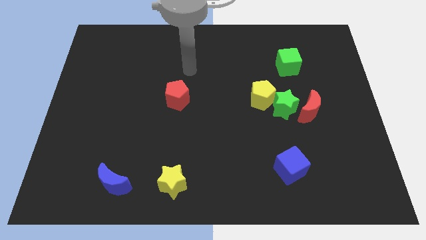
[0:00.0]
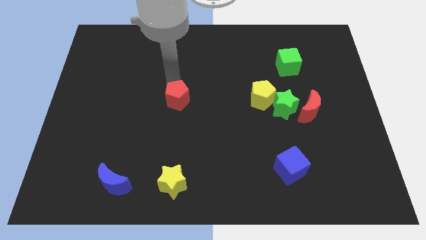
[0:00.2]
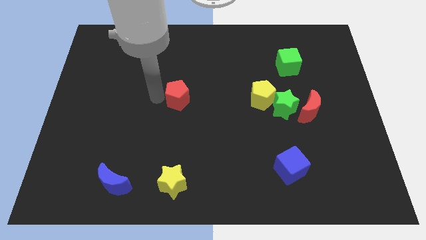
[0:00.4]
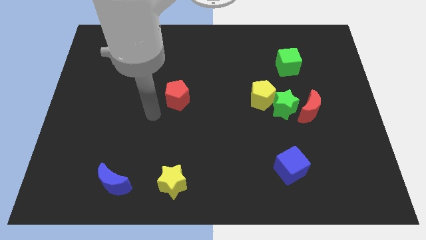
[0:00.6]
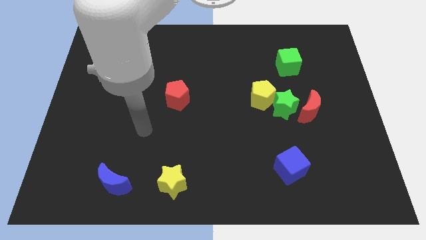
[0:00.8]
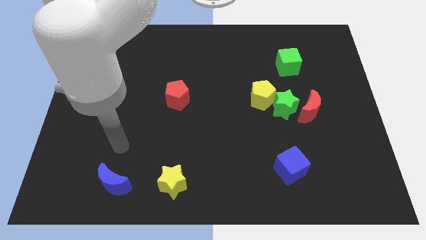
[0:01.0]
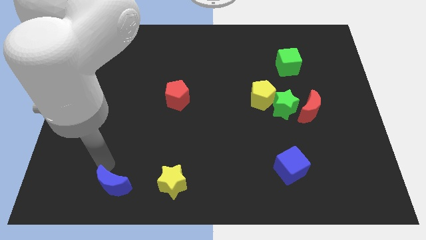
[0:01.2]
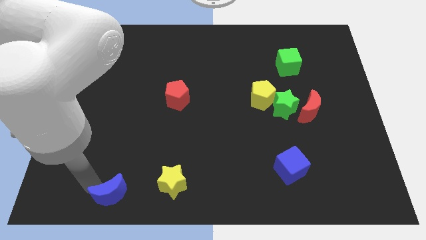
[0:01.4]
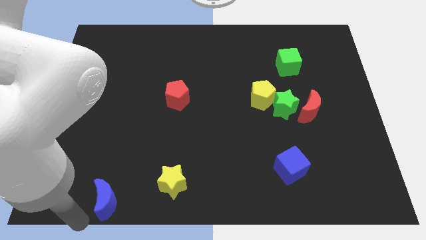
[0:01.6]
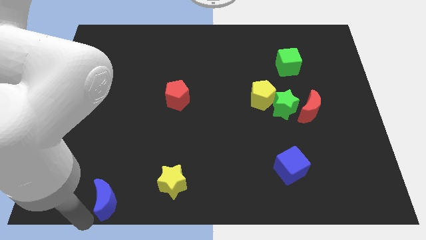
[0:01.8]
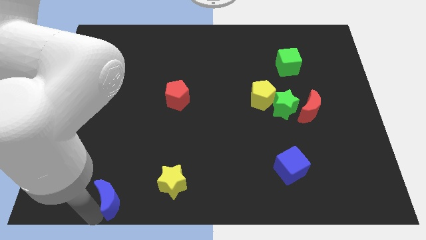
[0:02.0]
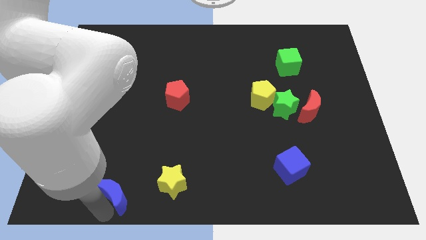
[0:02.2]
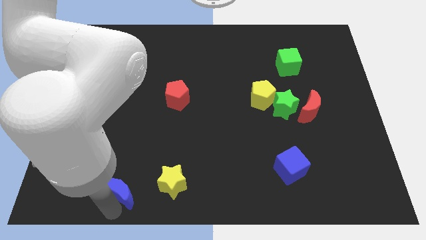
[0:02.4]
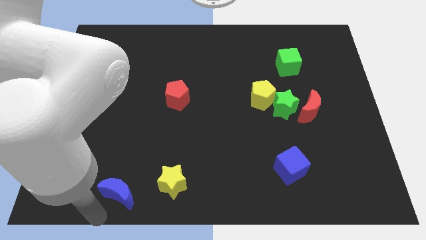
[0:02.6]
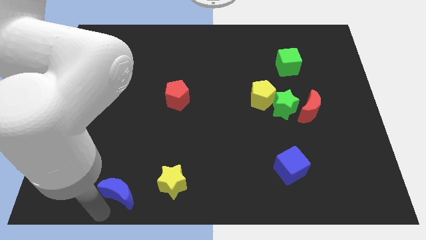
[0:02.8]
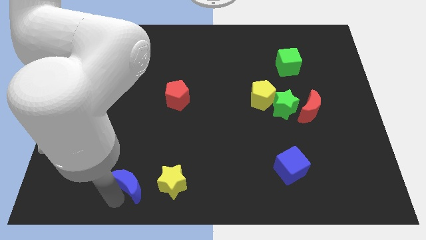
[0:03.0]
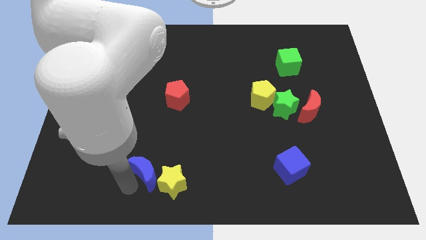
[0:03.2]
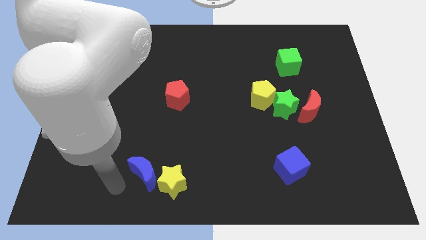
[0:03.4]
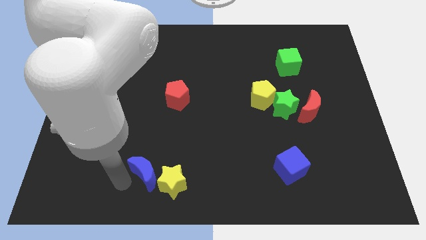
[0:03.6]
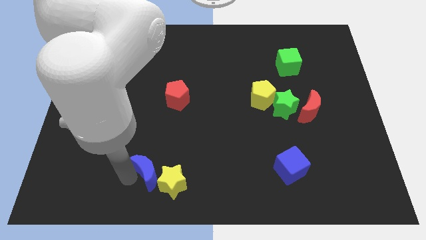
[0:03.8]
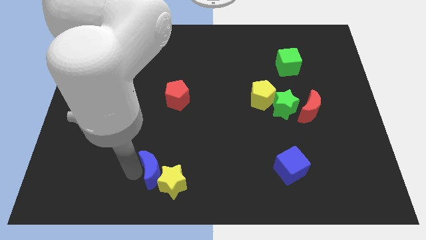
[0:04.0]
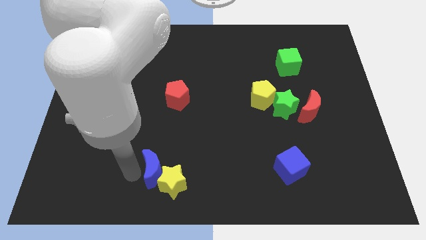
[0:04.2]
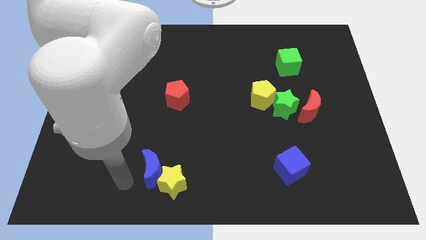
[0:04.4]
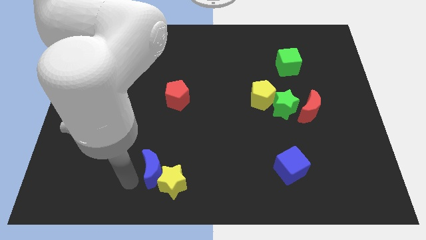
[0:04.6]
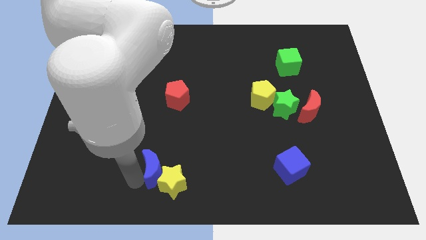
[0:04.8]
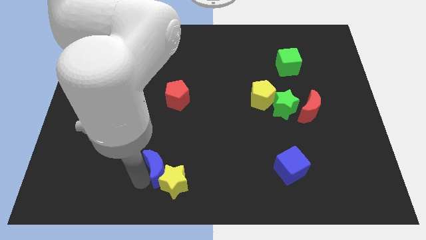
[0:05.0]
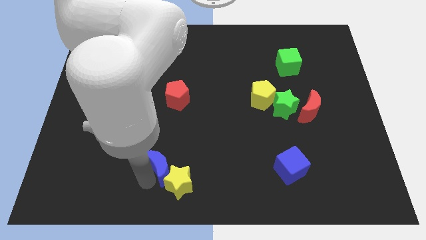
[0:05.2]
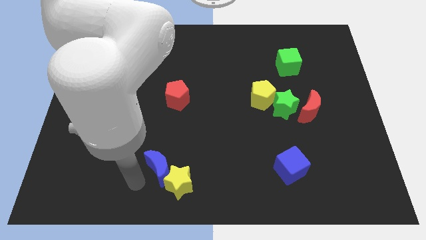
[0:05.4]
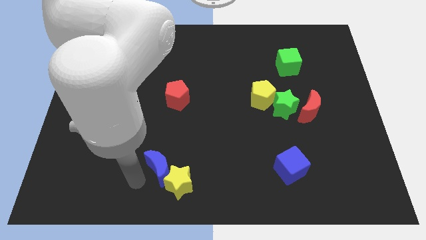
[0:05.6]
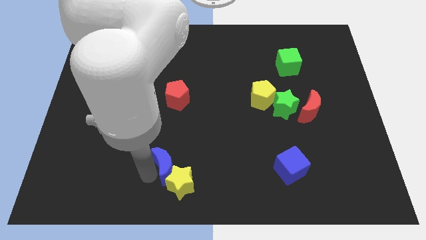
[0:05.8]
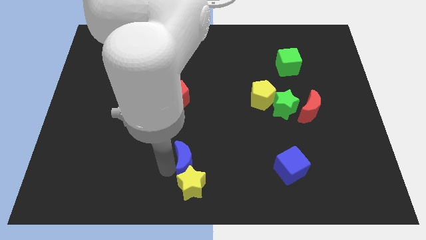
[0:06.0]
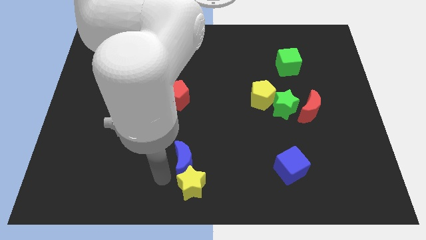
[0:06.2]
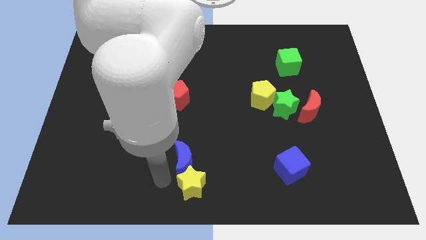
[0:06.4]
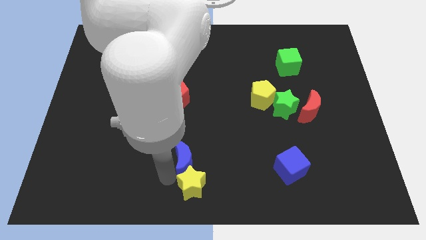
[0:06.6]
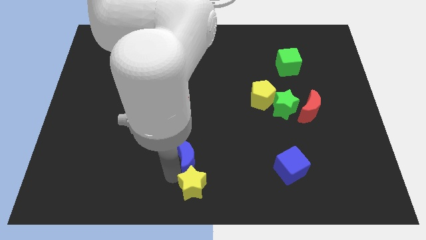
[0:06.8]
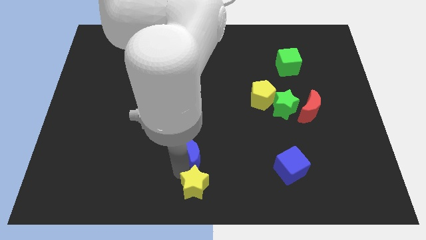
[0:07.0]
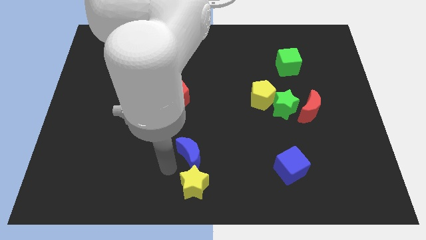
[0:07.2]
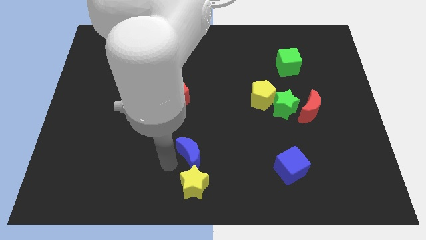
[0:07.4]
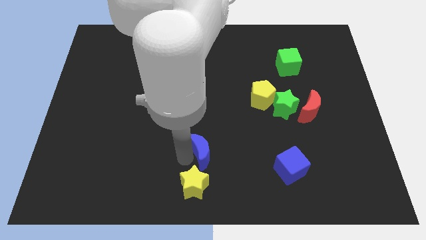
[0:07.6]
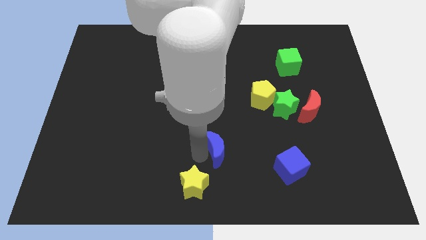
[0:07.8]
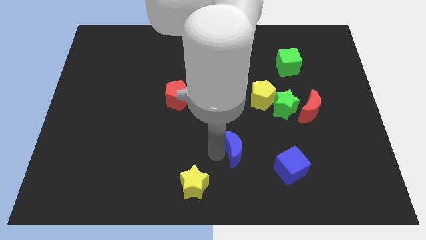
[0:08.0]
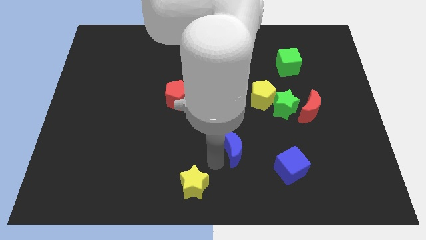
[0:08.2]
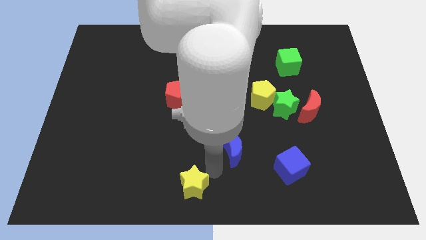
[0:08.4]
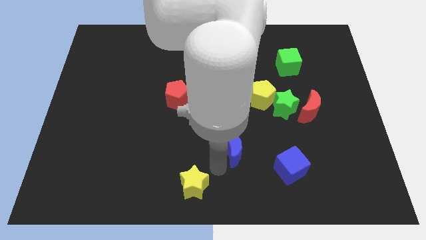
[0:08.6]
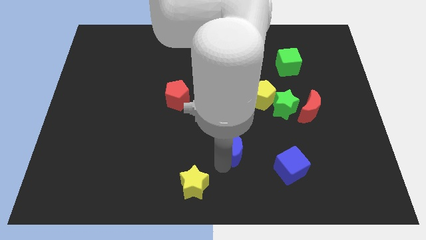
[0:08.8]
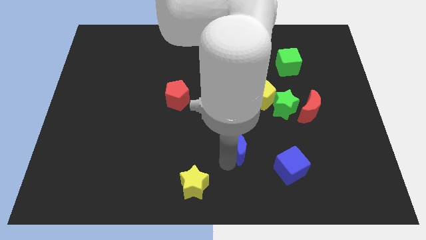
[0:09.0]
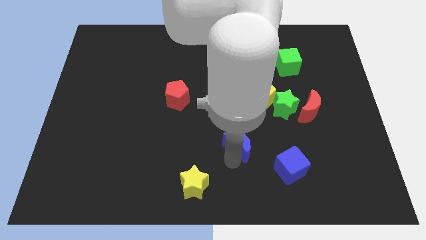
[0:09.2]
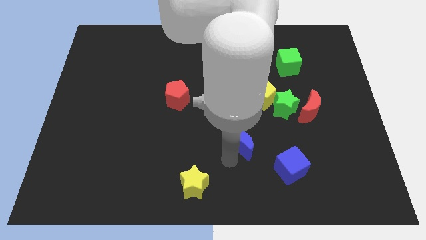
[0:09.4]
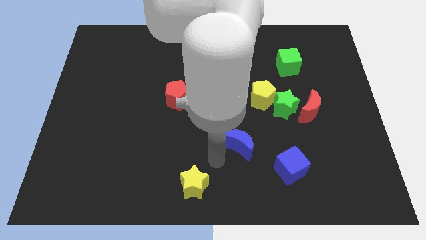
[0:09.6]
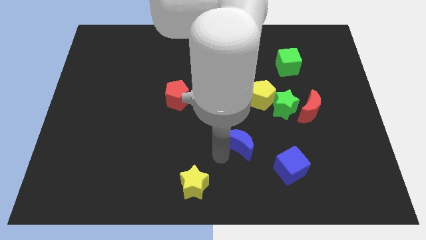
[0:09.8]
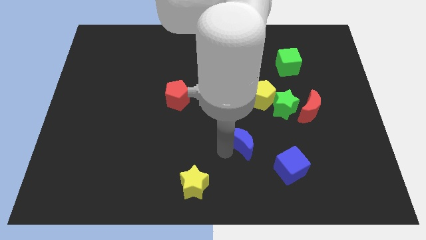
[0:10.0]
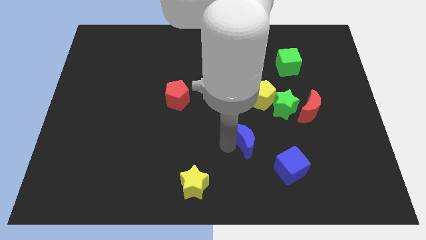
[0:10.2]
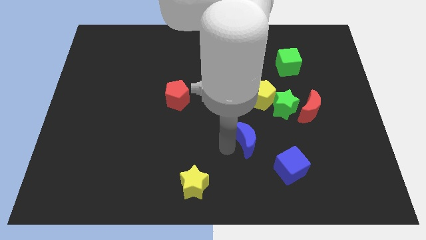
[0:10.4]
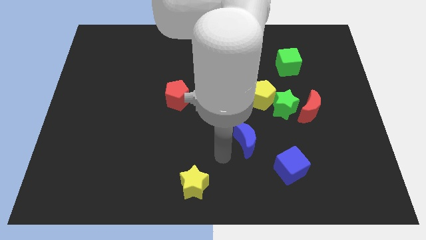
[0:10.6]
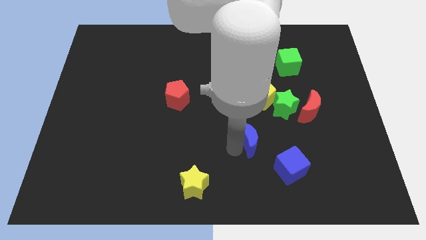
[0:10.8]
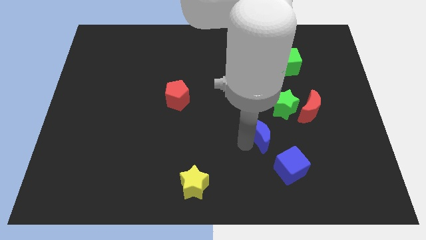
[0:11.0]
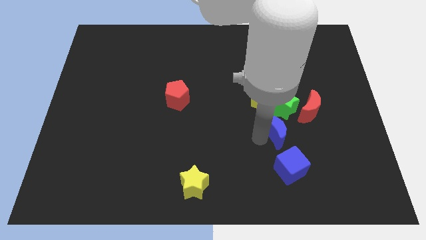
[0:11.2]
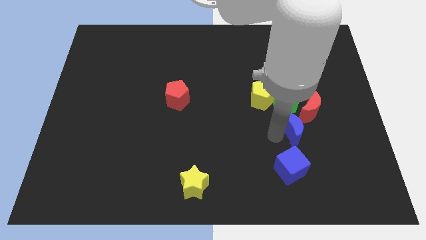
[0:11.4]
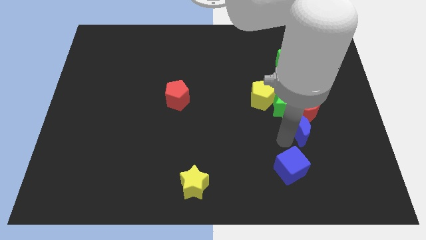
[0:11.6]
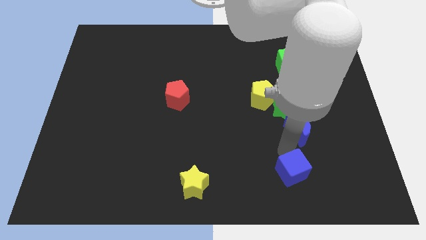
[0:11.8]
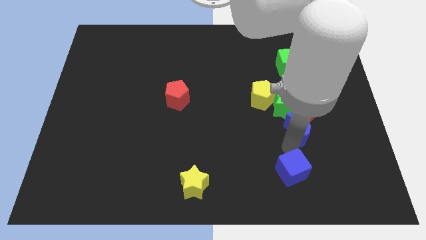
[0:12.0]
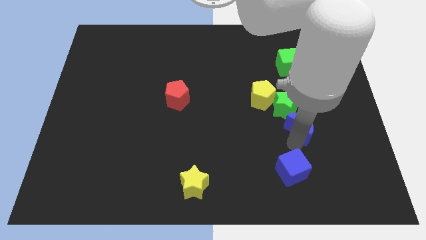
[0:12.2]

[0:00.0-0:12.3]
push the blue moon towards the red moon

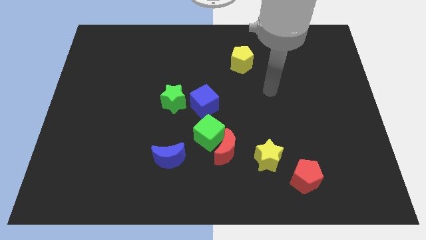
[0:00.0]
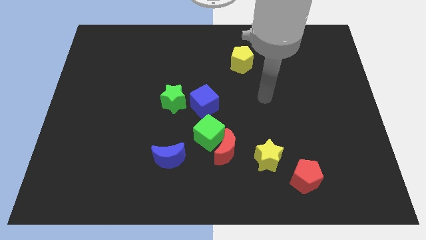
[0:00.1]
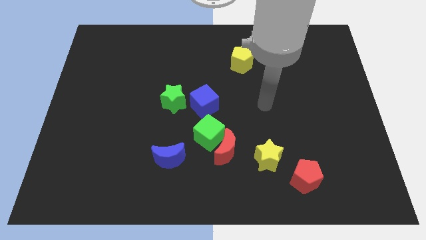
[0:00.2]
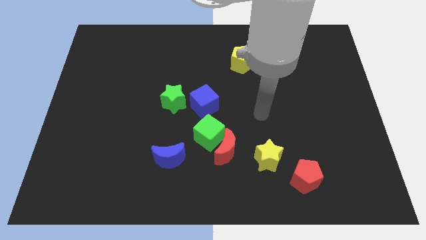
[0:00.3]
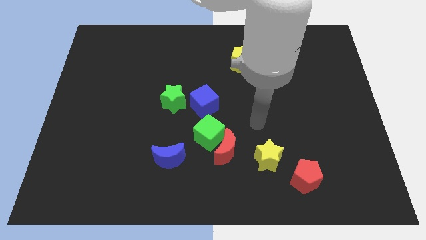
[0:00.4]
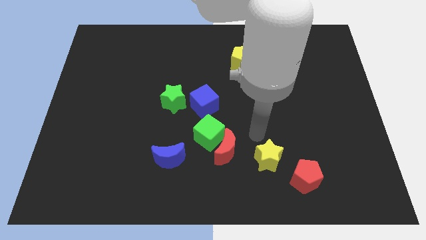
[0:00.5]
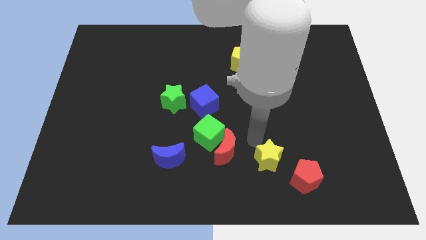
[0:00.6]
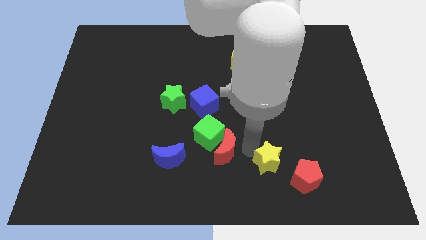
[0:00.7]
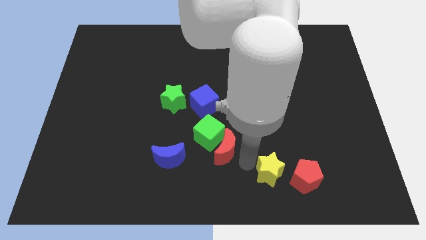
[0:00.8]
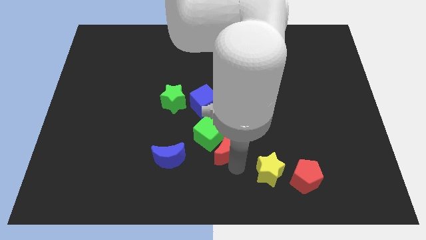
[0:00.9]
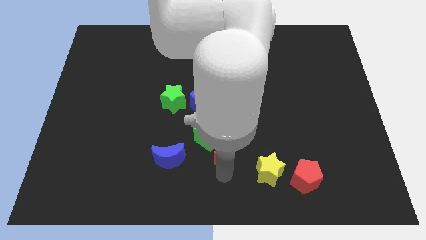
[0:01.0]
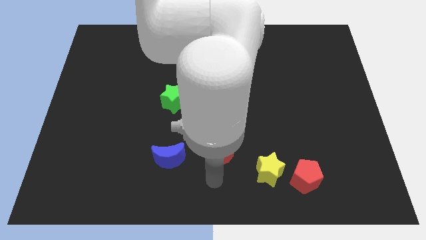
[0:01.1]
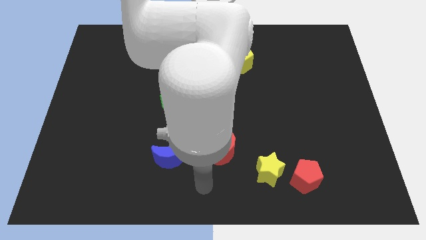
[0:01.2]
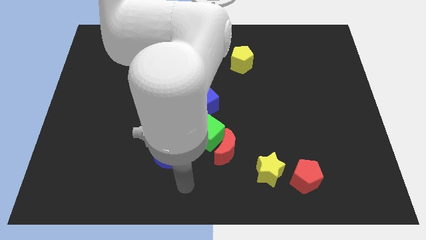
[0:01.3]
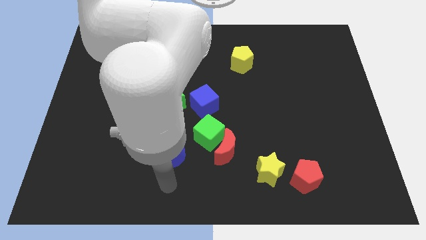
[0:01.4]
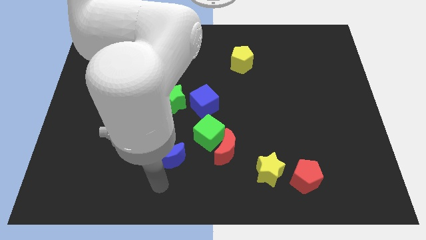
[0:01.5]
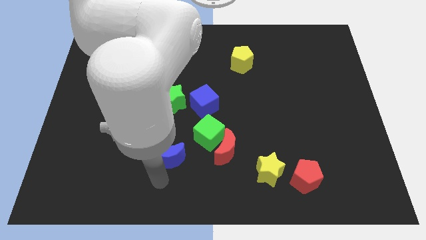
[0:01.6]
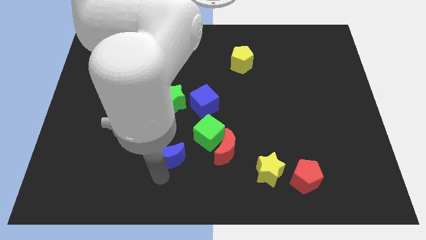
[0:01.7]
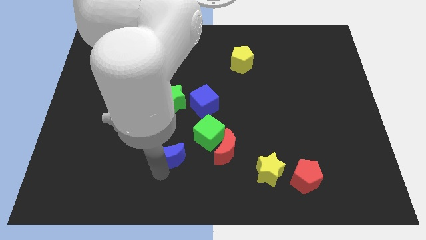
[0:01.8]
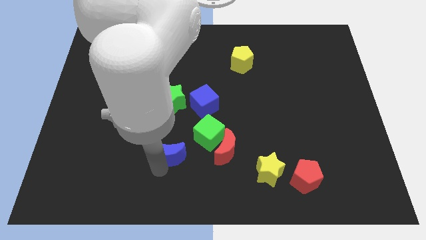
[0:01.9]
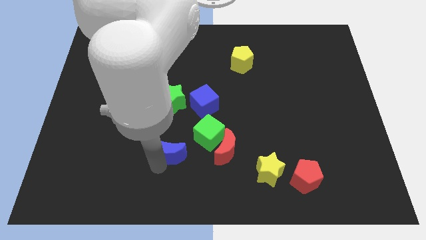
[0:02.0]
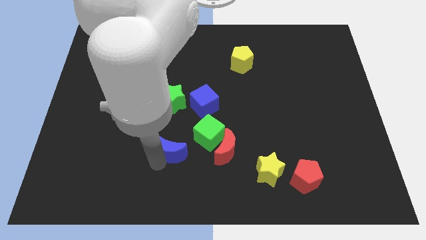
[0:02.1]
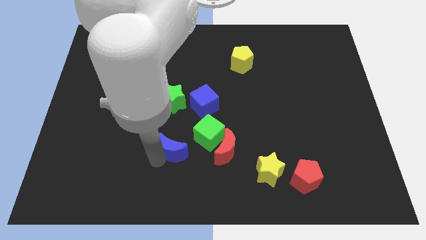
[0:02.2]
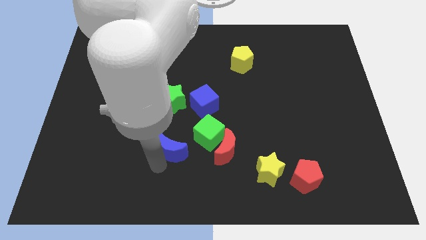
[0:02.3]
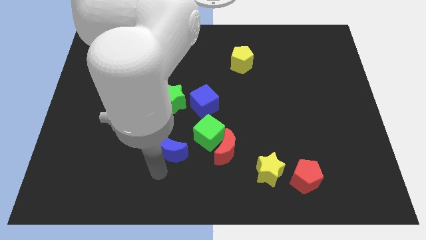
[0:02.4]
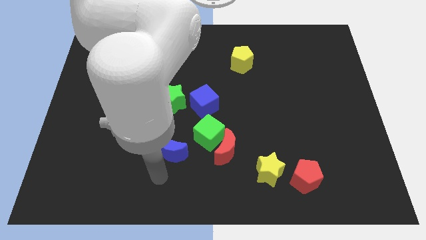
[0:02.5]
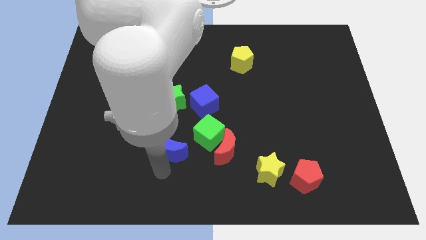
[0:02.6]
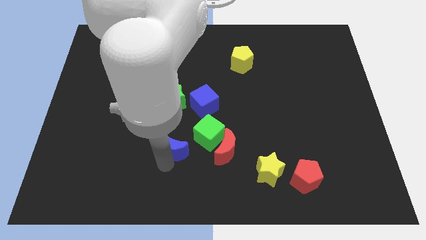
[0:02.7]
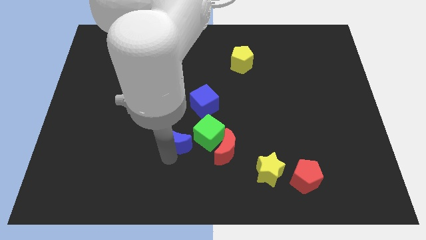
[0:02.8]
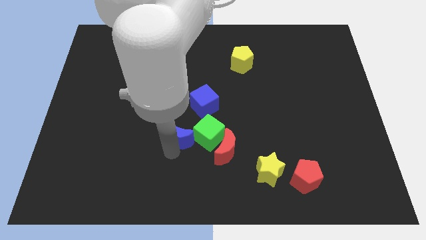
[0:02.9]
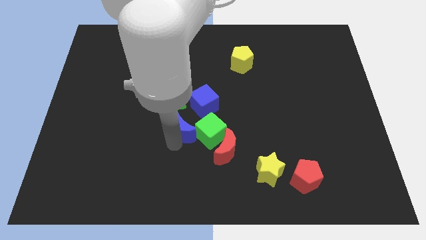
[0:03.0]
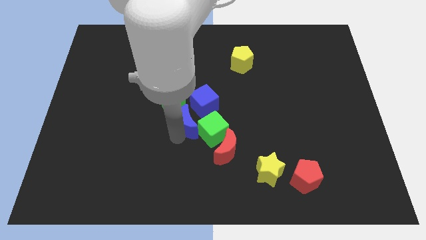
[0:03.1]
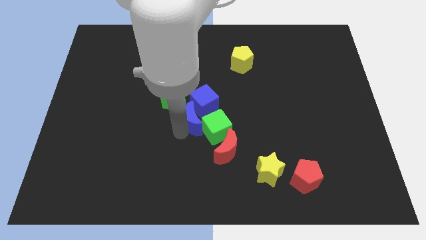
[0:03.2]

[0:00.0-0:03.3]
move the blue moon towards the blue cube
